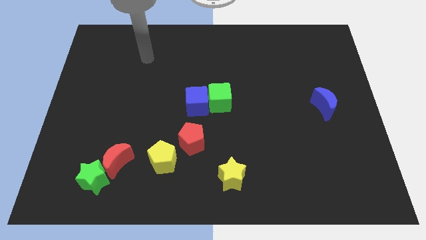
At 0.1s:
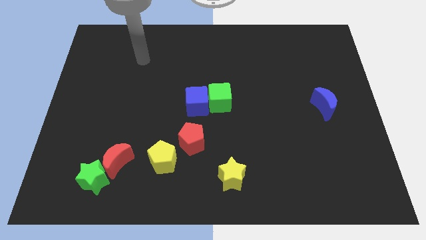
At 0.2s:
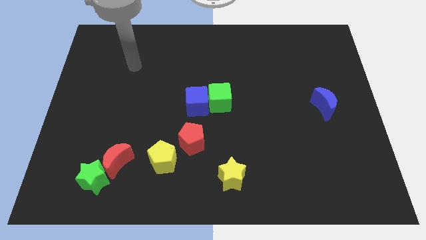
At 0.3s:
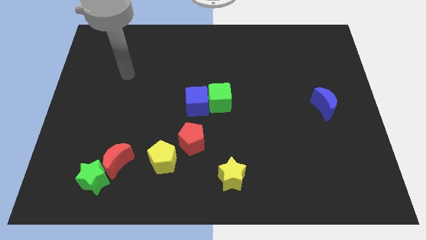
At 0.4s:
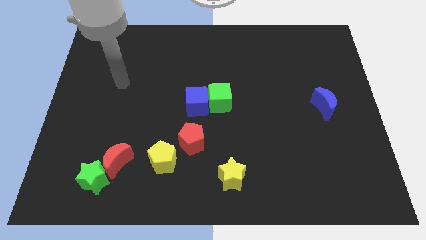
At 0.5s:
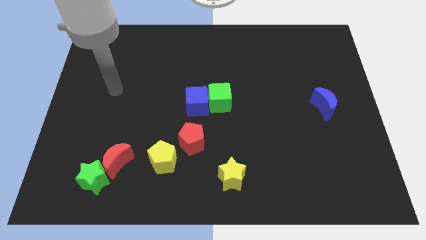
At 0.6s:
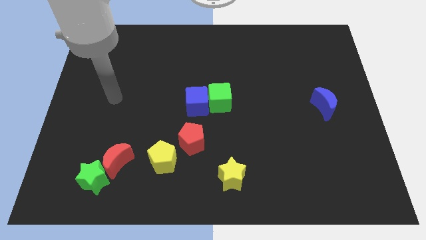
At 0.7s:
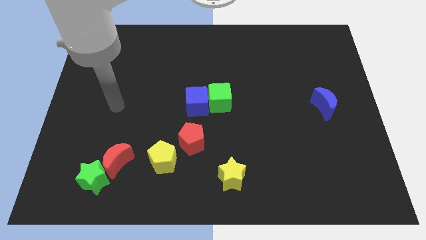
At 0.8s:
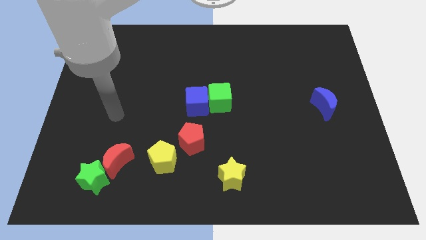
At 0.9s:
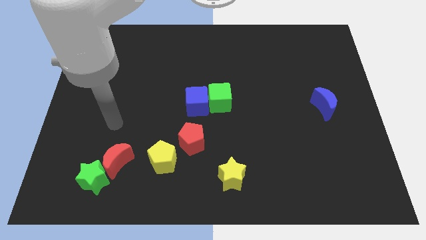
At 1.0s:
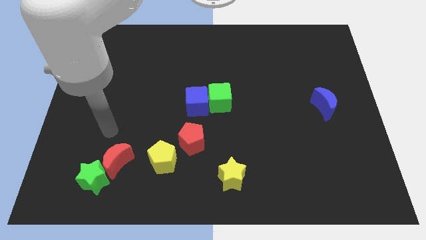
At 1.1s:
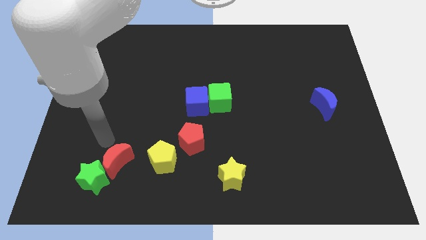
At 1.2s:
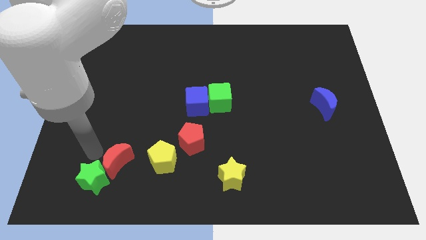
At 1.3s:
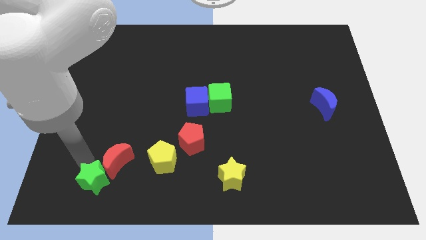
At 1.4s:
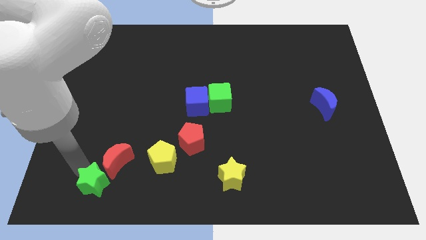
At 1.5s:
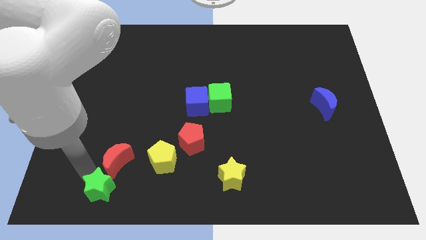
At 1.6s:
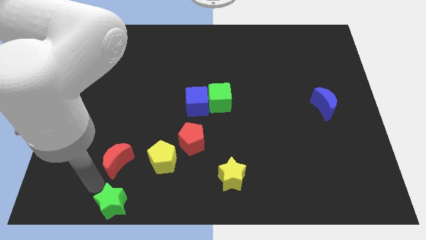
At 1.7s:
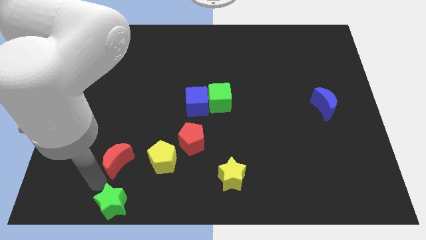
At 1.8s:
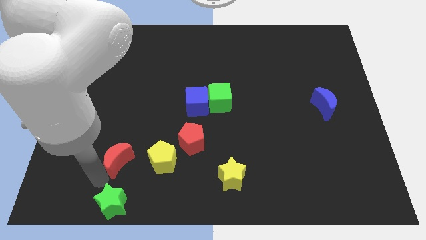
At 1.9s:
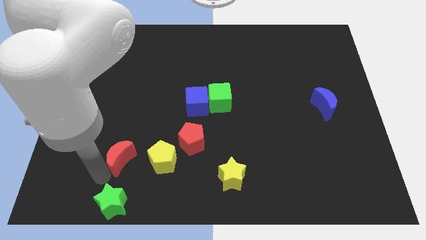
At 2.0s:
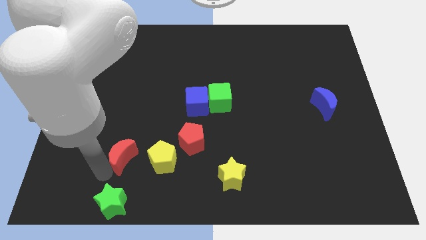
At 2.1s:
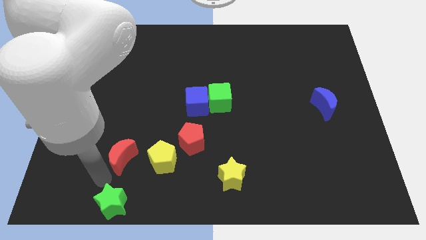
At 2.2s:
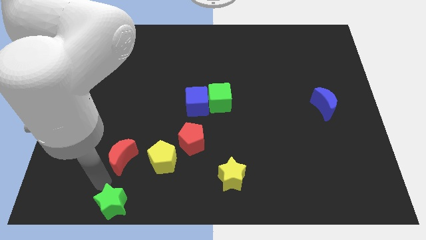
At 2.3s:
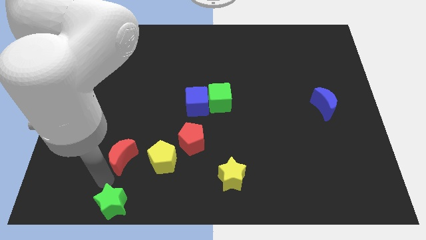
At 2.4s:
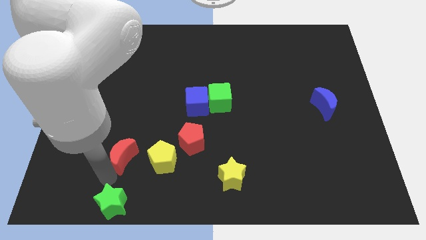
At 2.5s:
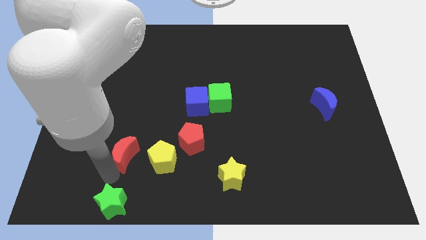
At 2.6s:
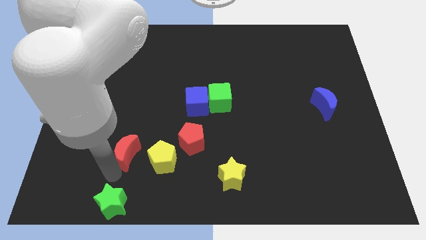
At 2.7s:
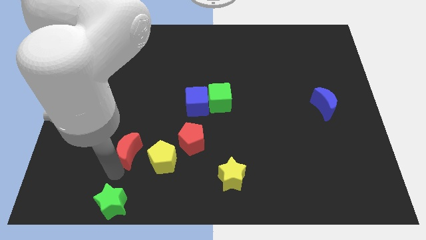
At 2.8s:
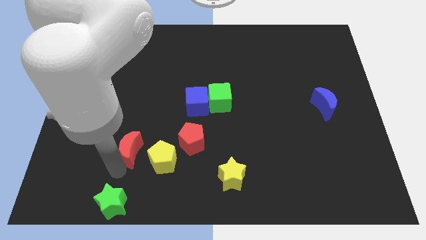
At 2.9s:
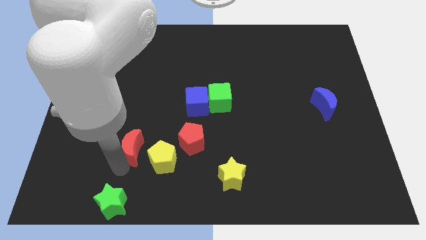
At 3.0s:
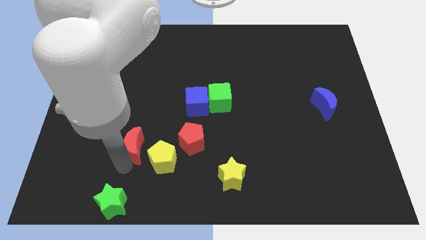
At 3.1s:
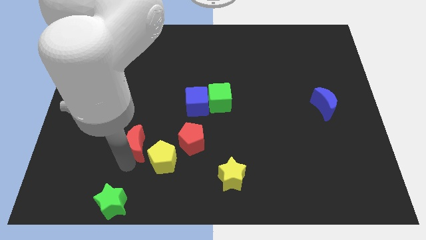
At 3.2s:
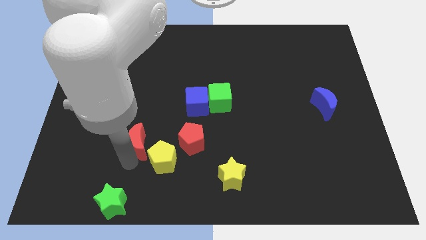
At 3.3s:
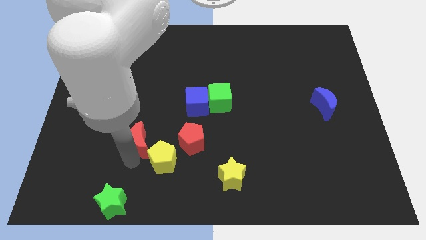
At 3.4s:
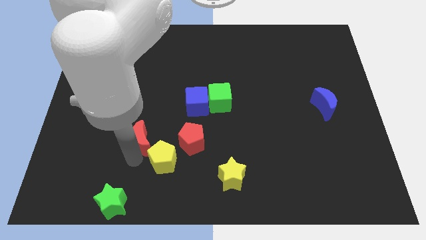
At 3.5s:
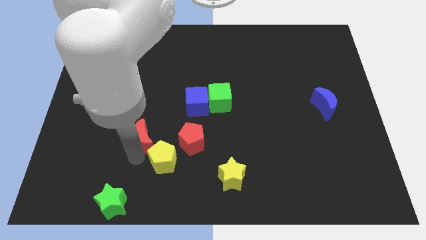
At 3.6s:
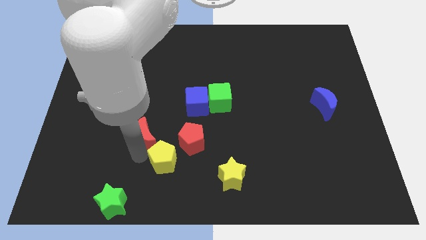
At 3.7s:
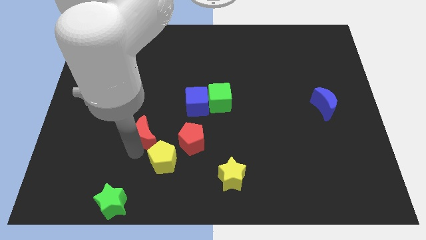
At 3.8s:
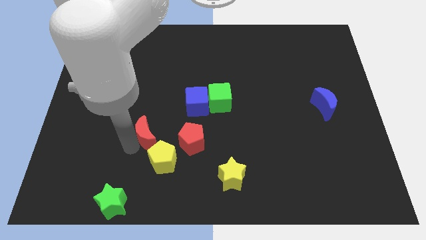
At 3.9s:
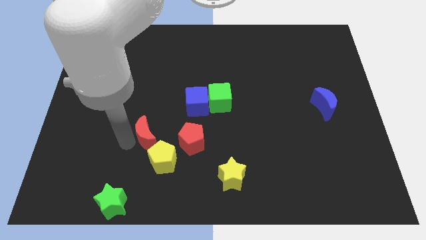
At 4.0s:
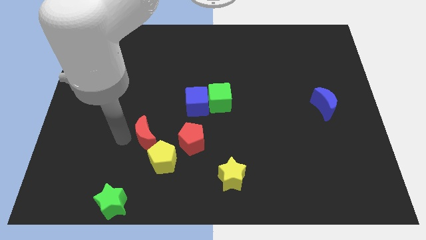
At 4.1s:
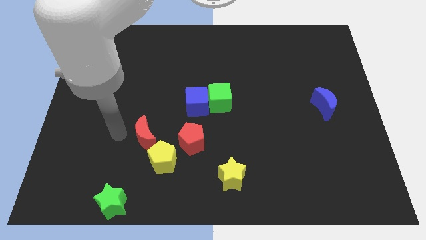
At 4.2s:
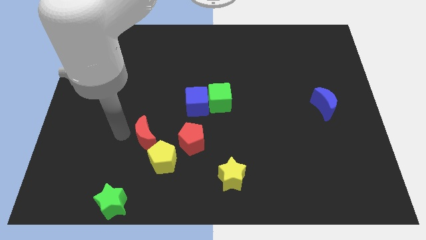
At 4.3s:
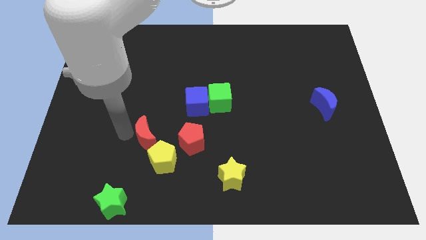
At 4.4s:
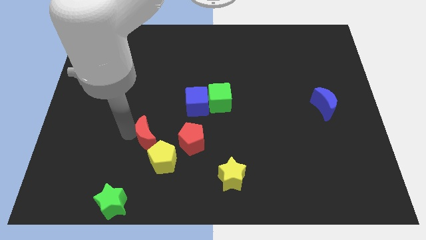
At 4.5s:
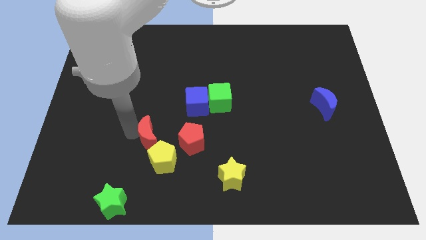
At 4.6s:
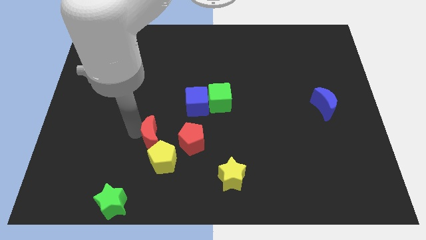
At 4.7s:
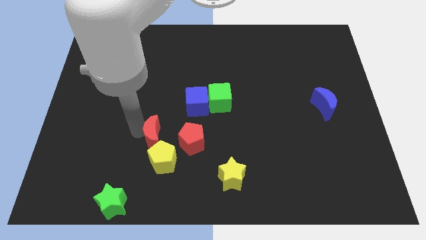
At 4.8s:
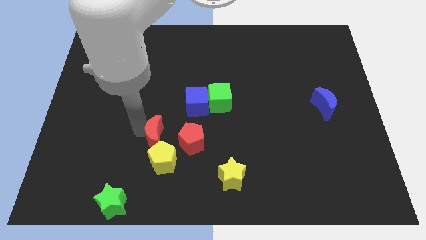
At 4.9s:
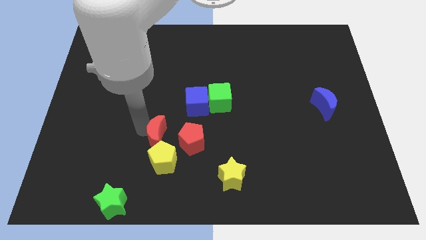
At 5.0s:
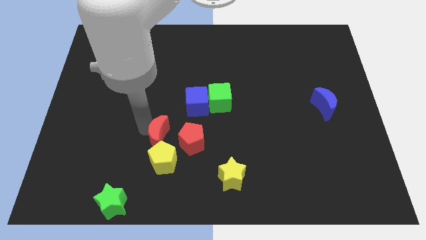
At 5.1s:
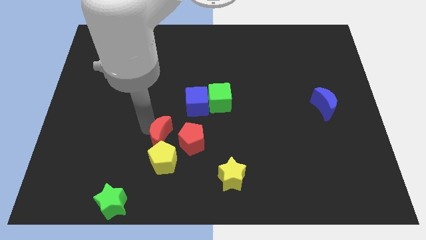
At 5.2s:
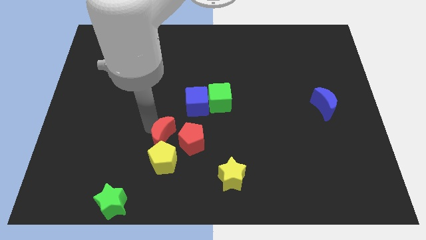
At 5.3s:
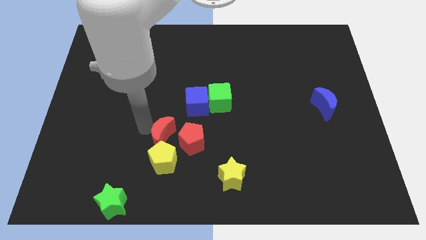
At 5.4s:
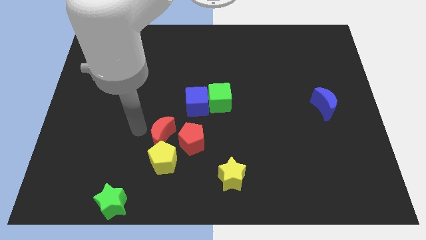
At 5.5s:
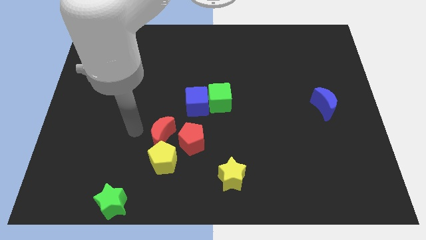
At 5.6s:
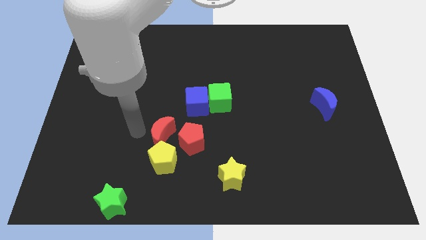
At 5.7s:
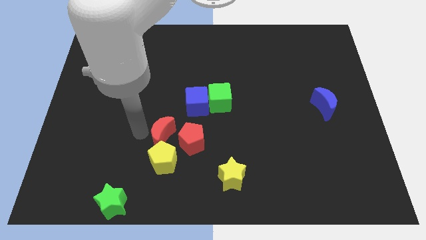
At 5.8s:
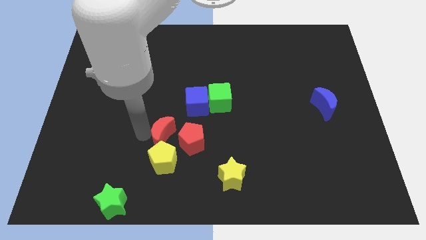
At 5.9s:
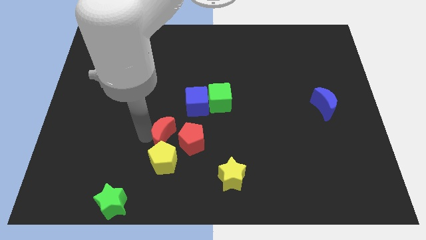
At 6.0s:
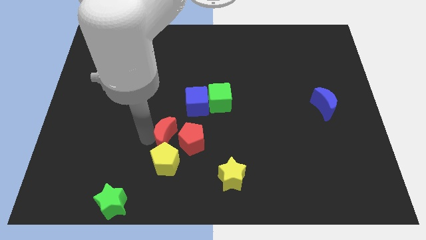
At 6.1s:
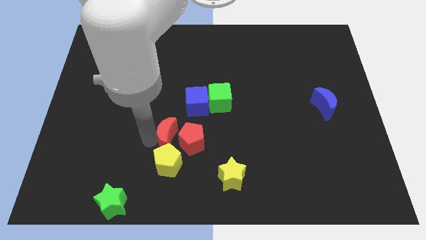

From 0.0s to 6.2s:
slide the red moon to the red pentagon

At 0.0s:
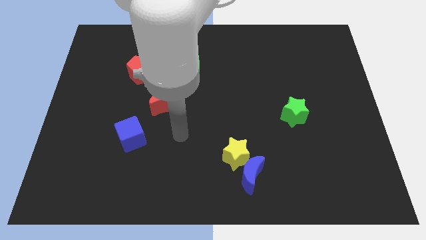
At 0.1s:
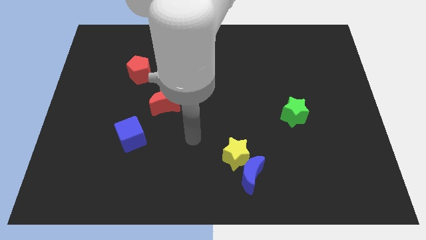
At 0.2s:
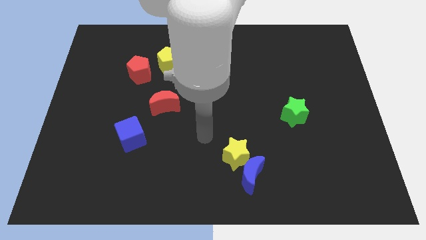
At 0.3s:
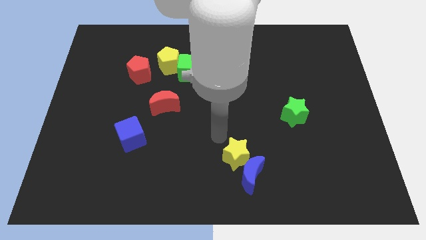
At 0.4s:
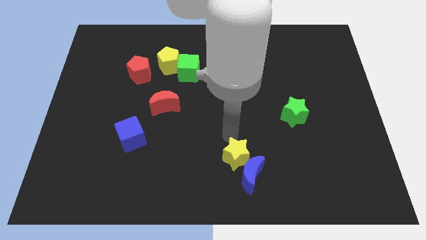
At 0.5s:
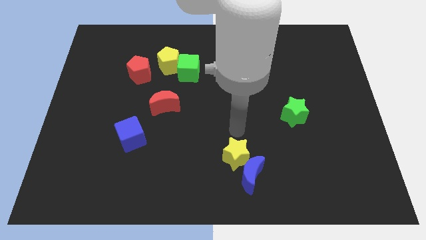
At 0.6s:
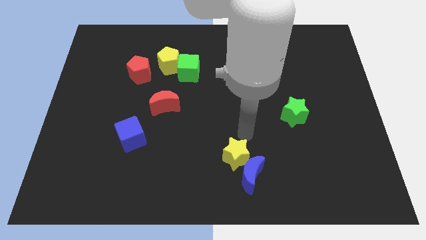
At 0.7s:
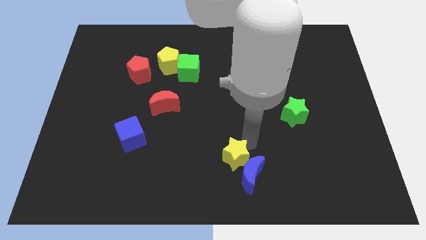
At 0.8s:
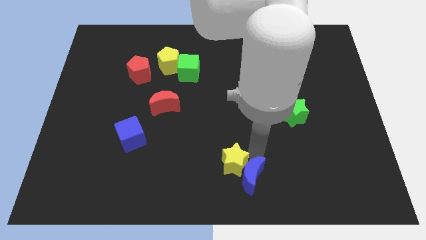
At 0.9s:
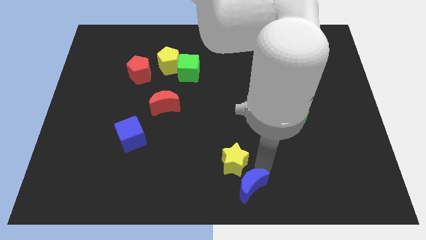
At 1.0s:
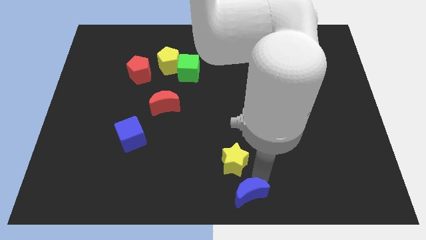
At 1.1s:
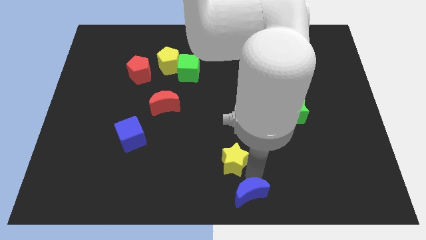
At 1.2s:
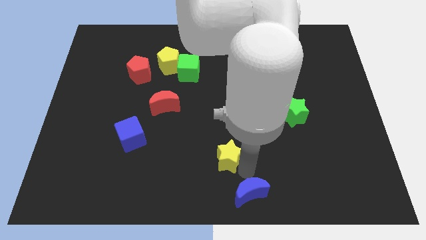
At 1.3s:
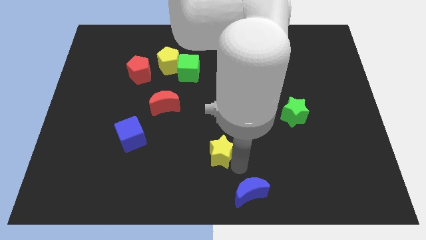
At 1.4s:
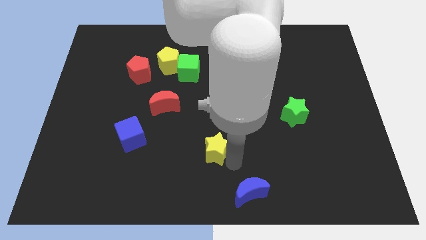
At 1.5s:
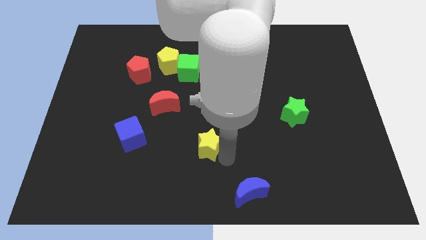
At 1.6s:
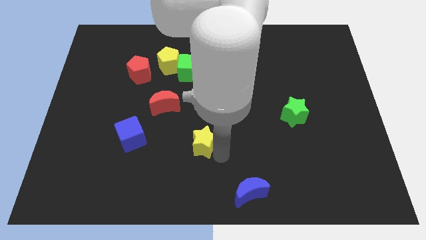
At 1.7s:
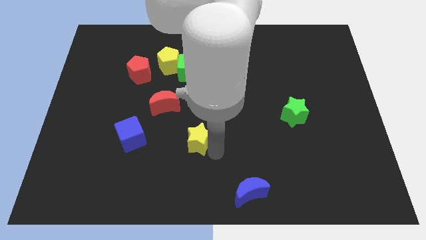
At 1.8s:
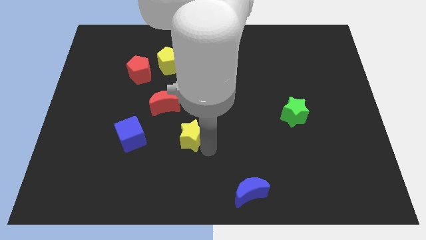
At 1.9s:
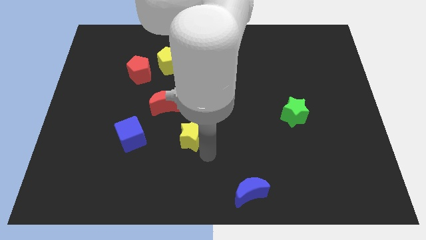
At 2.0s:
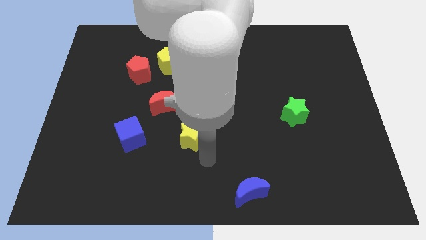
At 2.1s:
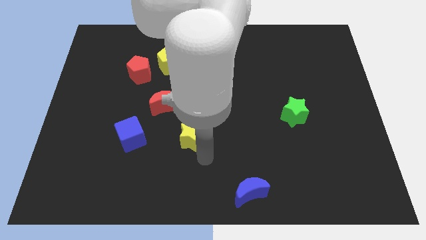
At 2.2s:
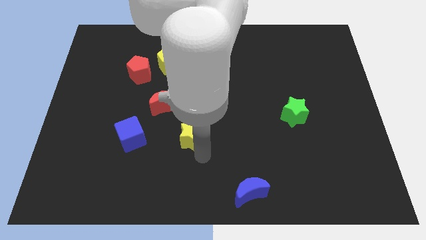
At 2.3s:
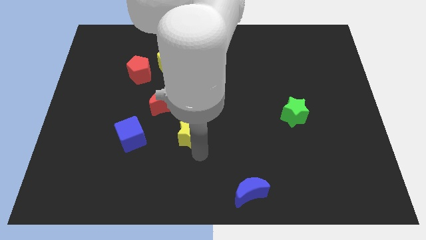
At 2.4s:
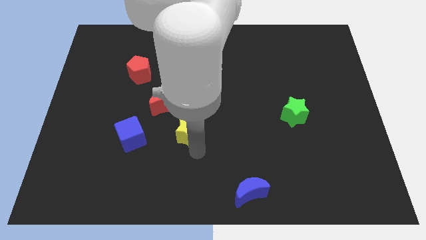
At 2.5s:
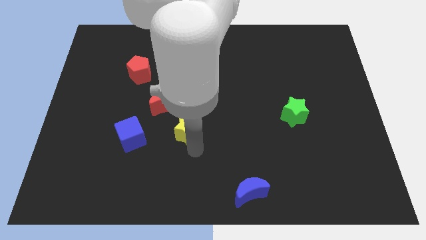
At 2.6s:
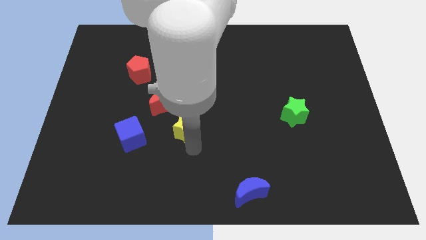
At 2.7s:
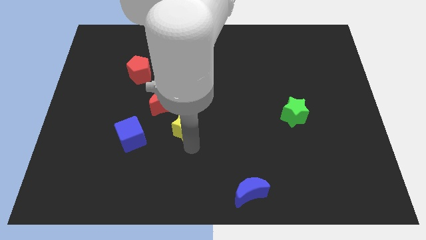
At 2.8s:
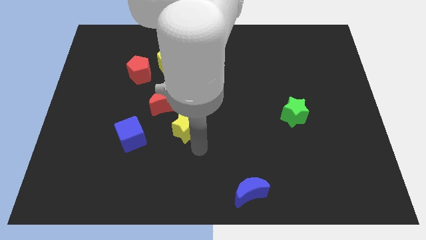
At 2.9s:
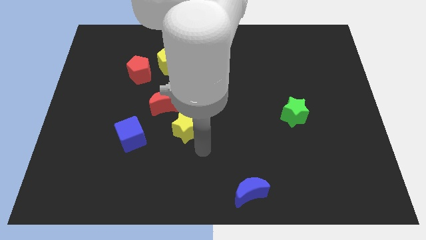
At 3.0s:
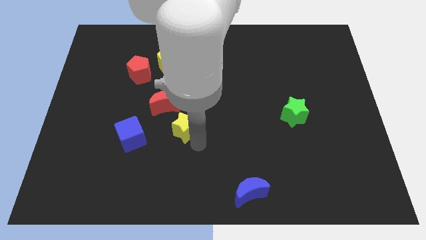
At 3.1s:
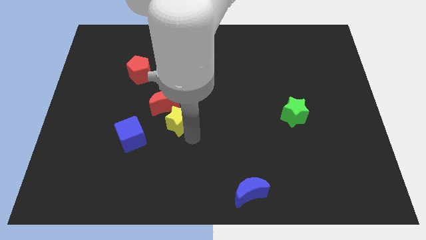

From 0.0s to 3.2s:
move the yellow star towards the red moon
